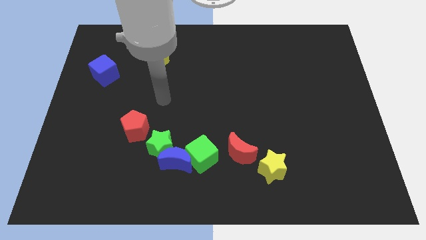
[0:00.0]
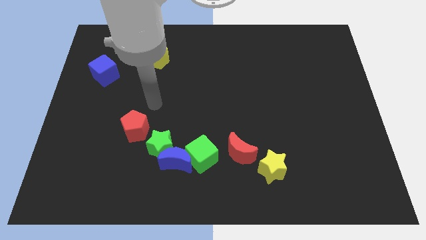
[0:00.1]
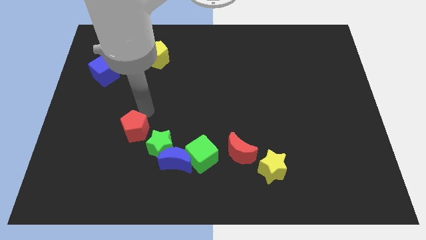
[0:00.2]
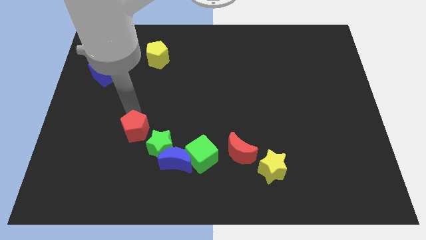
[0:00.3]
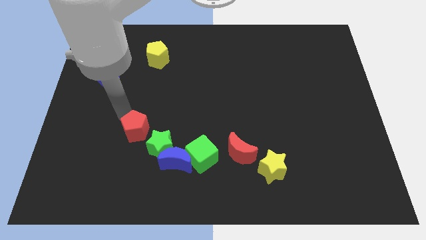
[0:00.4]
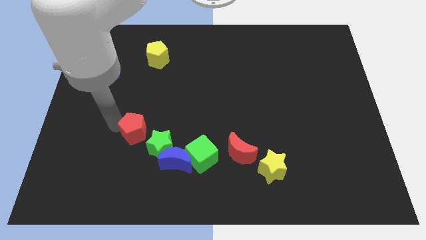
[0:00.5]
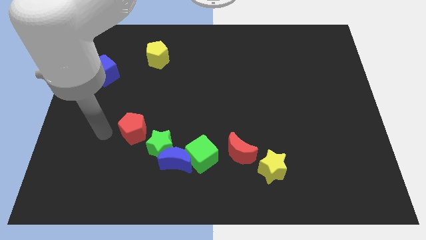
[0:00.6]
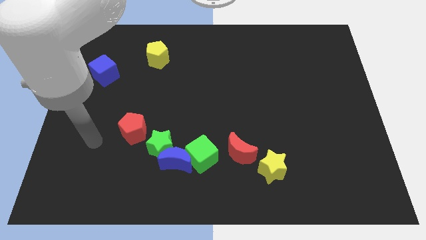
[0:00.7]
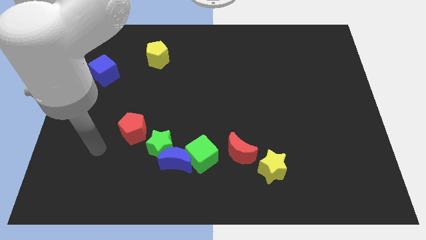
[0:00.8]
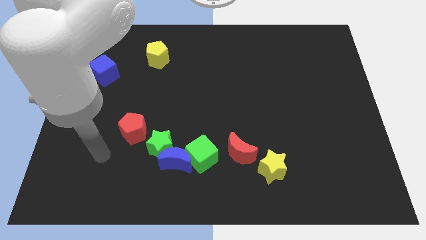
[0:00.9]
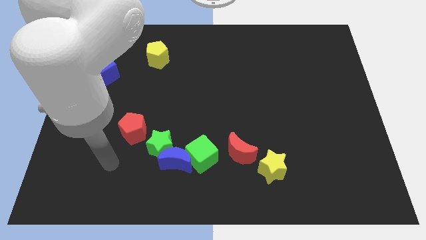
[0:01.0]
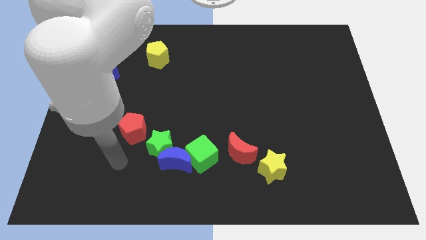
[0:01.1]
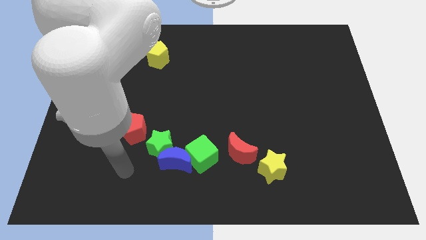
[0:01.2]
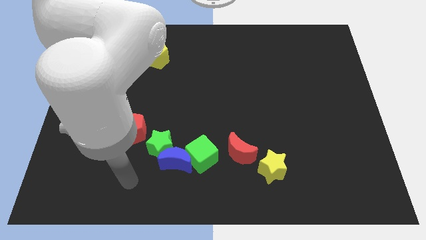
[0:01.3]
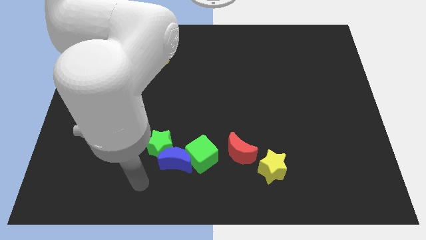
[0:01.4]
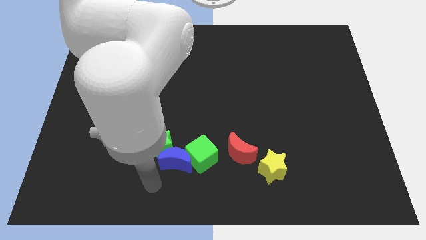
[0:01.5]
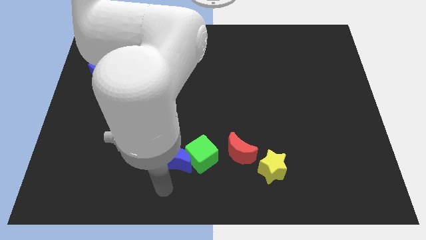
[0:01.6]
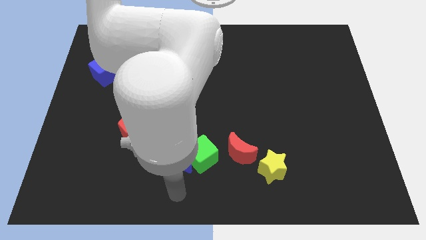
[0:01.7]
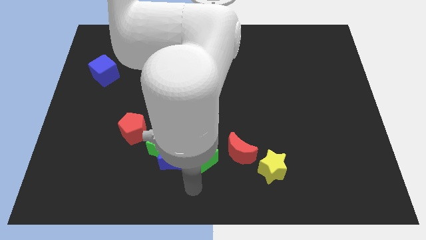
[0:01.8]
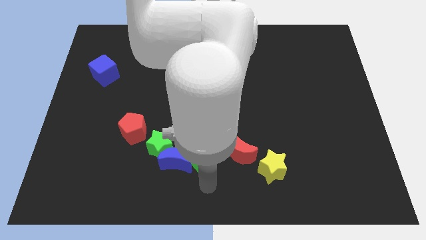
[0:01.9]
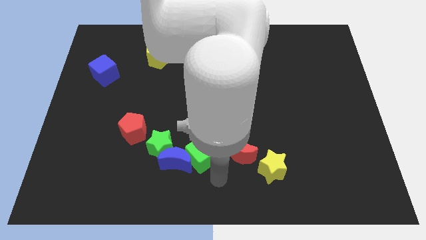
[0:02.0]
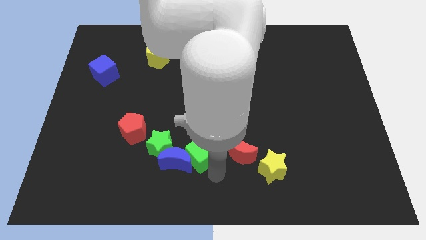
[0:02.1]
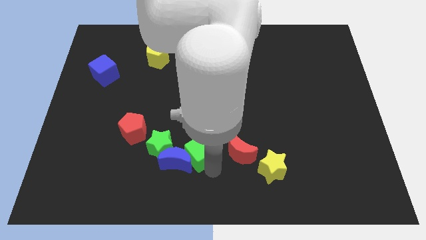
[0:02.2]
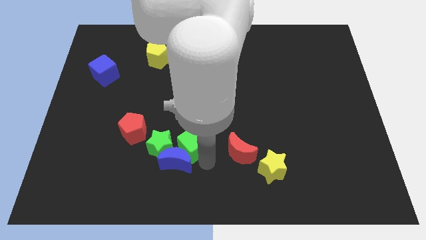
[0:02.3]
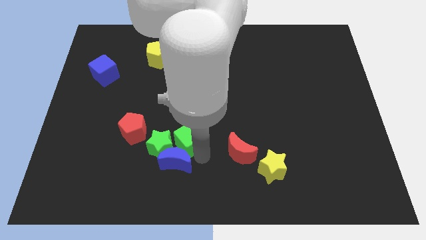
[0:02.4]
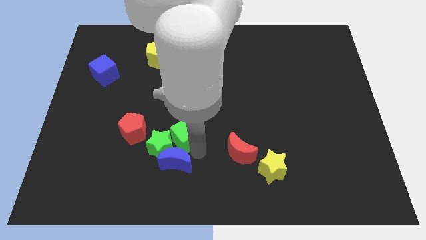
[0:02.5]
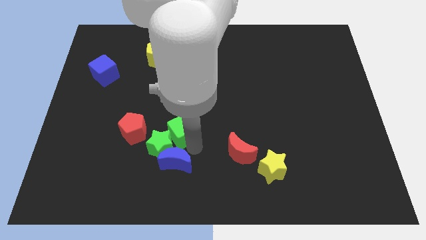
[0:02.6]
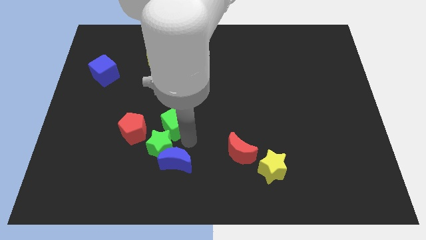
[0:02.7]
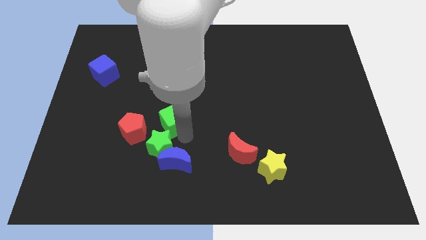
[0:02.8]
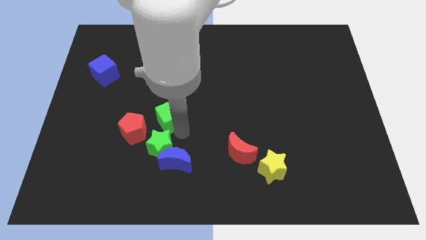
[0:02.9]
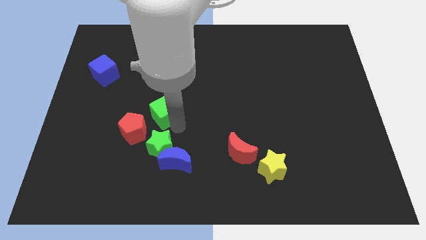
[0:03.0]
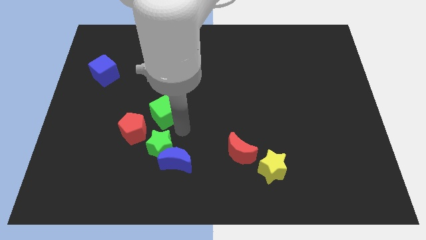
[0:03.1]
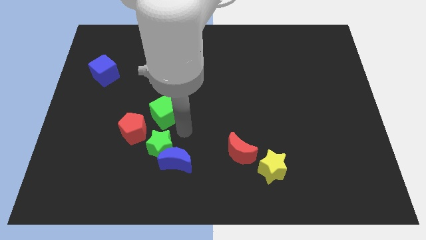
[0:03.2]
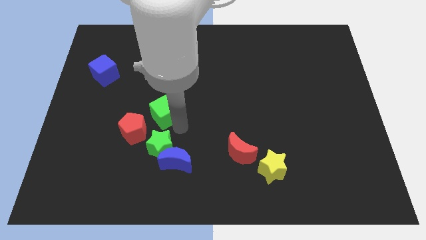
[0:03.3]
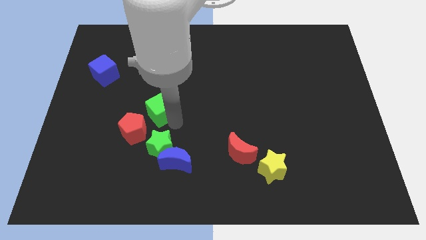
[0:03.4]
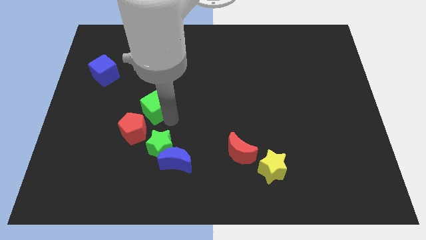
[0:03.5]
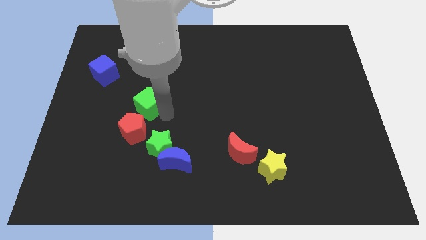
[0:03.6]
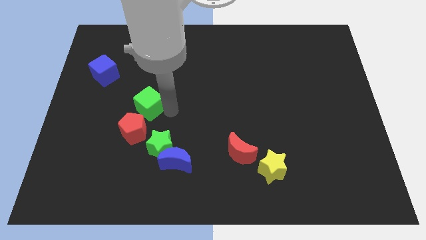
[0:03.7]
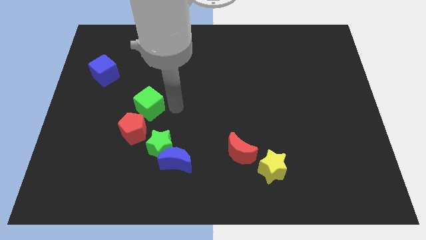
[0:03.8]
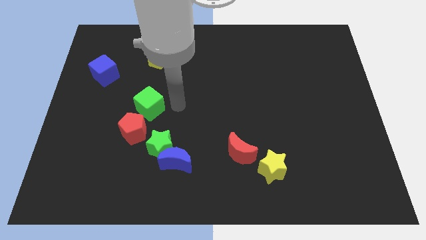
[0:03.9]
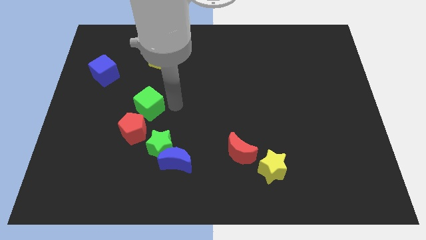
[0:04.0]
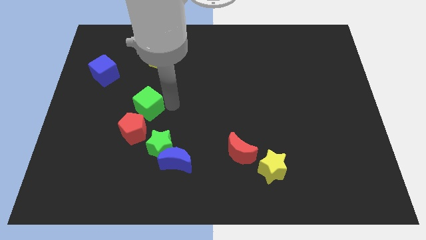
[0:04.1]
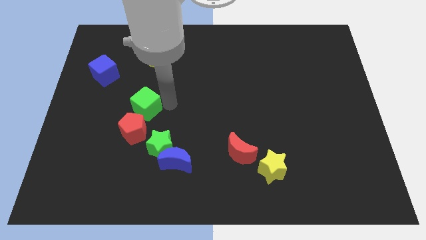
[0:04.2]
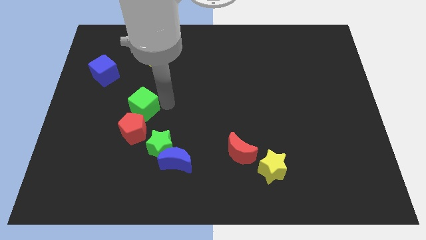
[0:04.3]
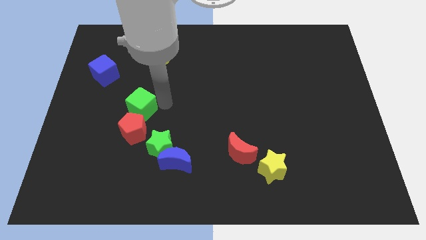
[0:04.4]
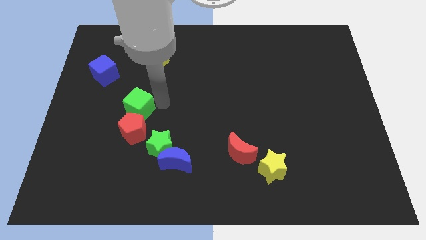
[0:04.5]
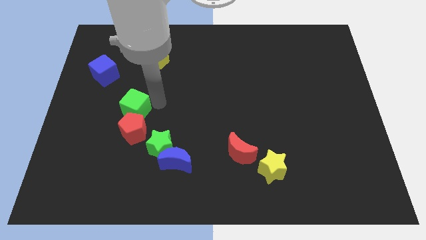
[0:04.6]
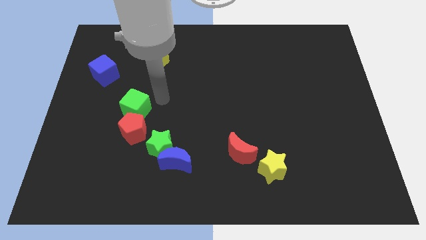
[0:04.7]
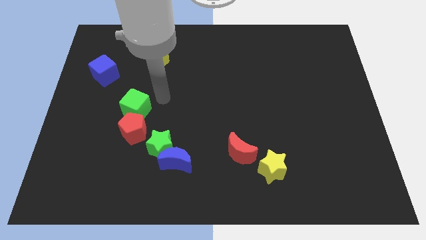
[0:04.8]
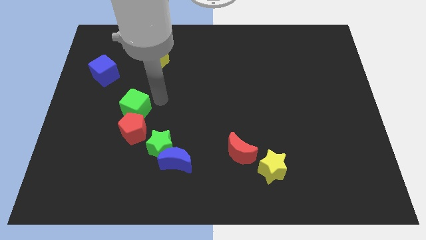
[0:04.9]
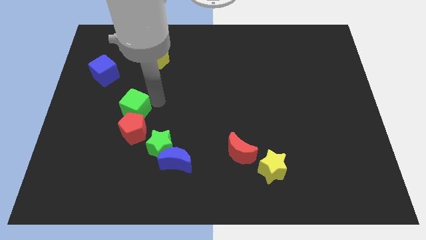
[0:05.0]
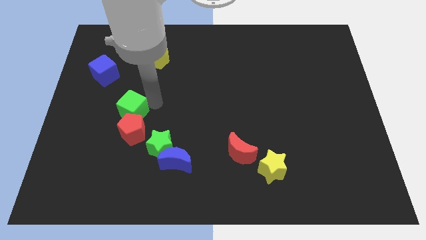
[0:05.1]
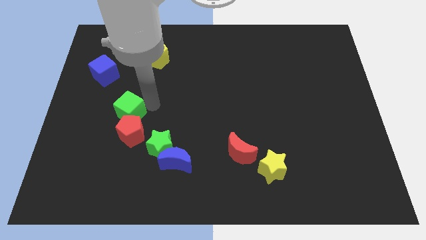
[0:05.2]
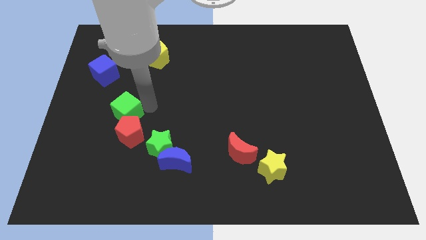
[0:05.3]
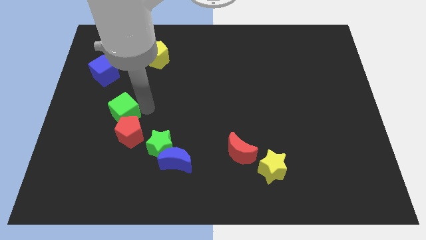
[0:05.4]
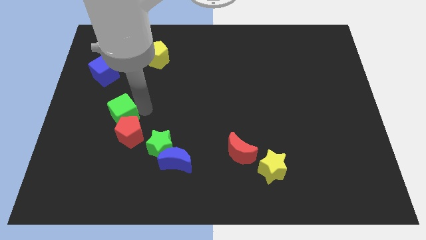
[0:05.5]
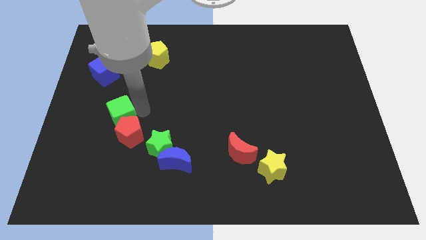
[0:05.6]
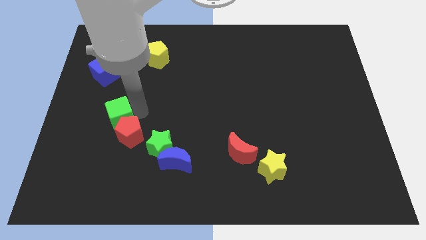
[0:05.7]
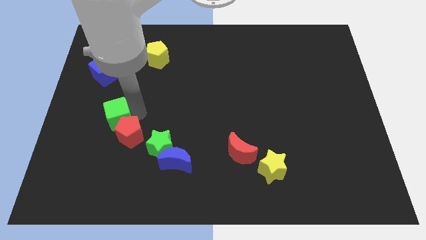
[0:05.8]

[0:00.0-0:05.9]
move the green cube just left of the red pentagon
